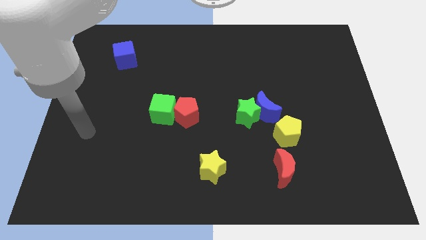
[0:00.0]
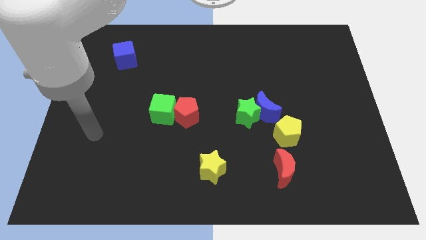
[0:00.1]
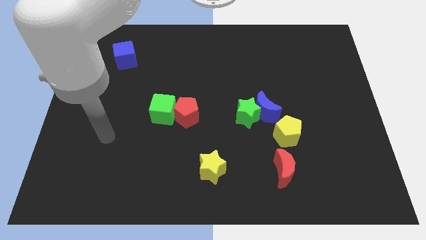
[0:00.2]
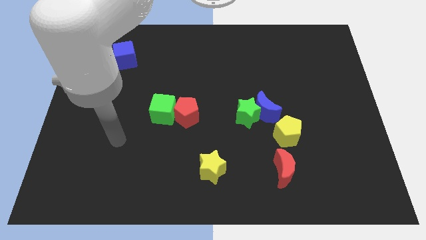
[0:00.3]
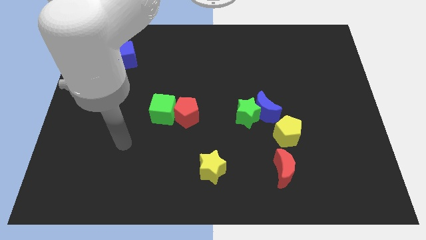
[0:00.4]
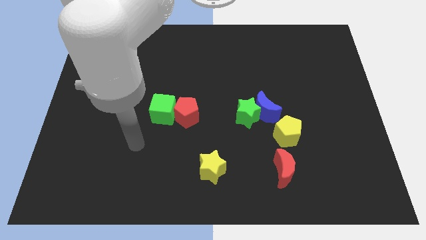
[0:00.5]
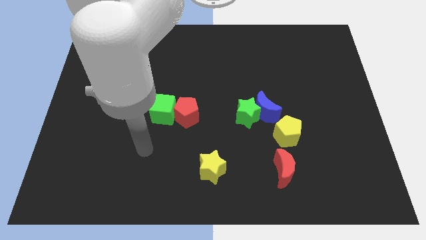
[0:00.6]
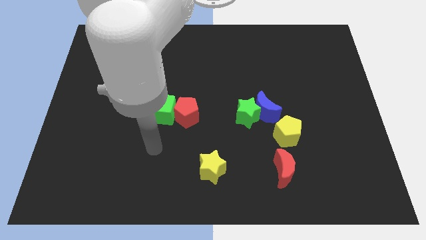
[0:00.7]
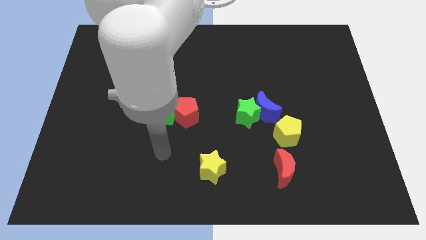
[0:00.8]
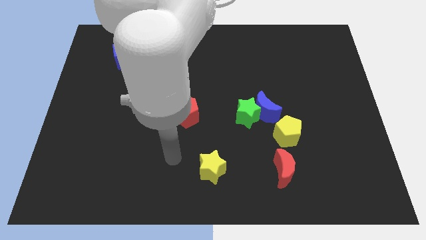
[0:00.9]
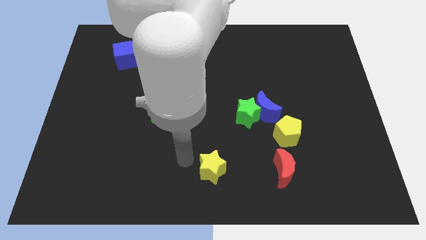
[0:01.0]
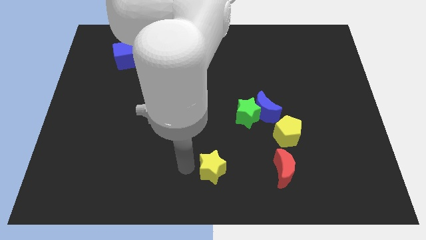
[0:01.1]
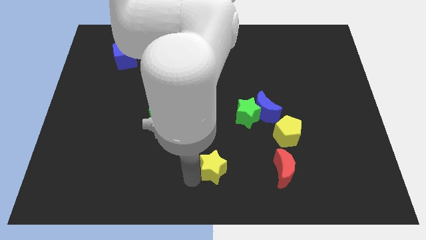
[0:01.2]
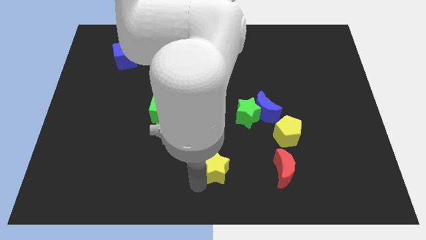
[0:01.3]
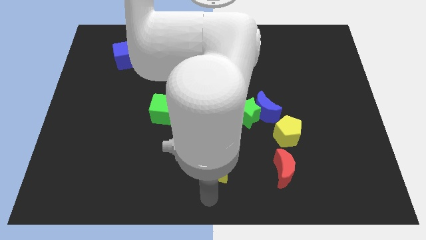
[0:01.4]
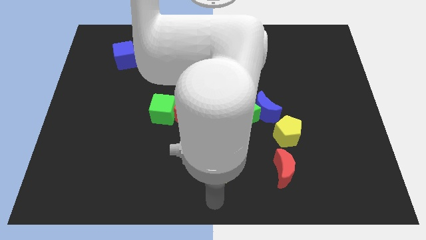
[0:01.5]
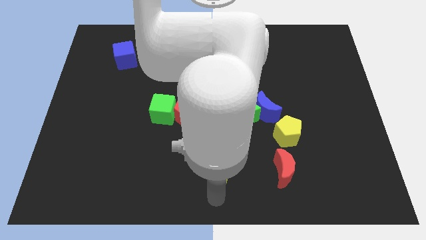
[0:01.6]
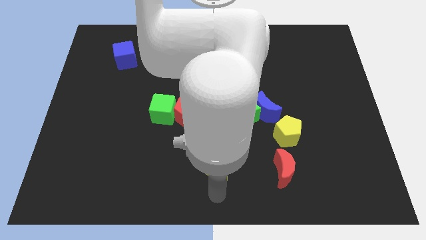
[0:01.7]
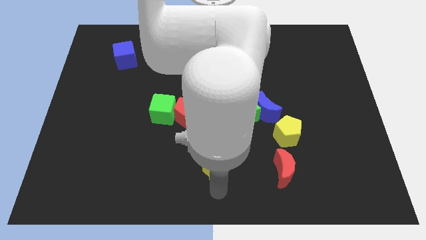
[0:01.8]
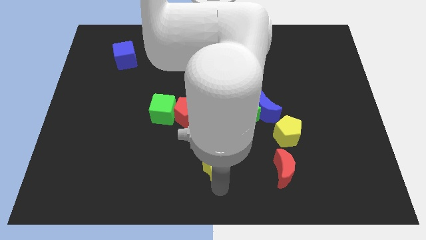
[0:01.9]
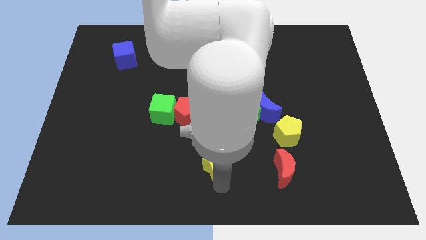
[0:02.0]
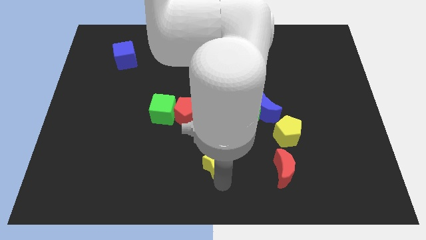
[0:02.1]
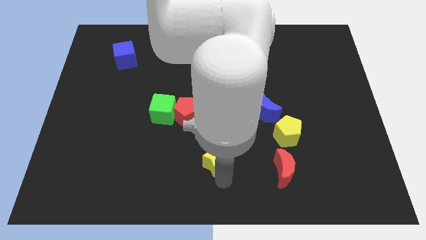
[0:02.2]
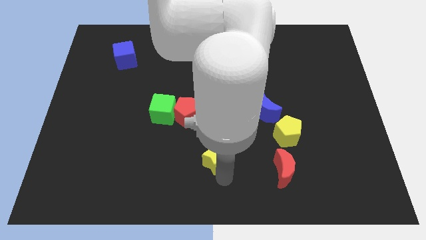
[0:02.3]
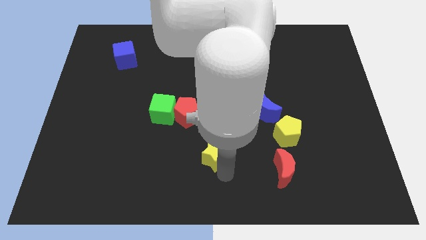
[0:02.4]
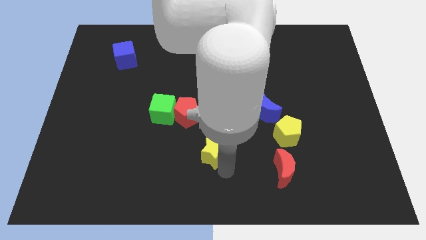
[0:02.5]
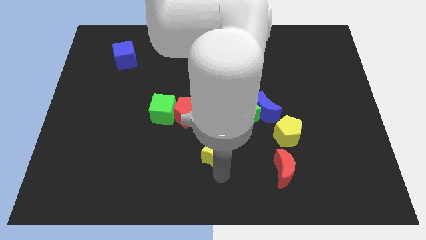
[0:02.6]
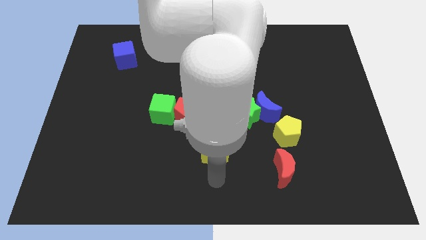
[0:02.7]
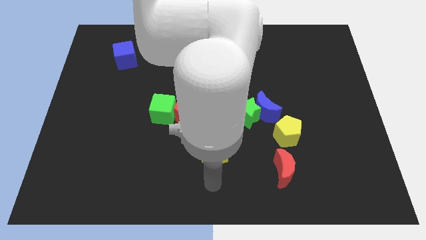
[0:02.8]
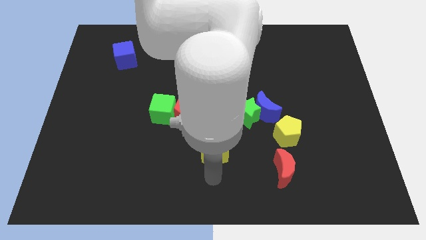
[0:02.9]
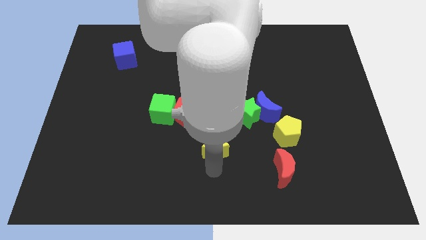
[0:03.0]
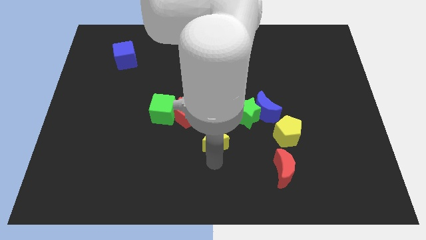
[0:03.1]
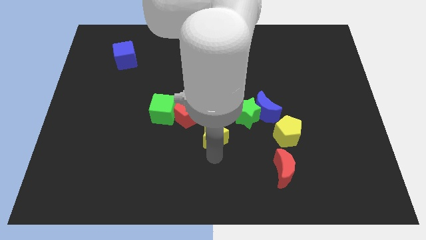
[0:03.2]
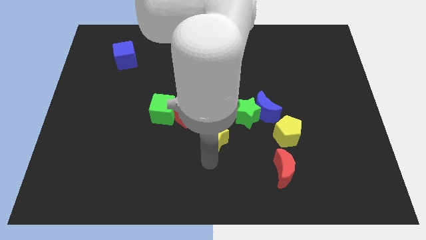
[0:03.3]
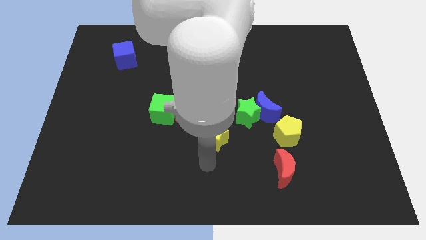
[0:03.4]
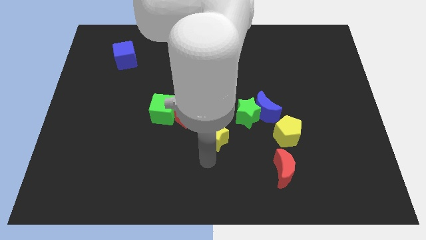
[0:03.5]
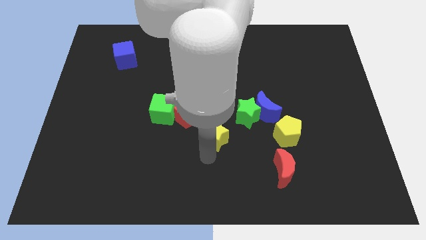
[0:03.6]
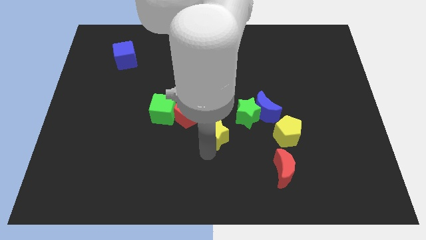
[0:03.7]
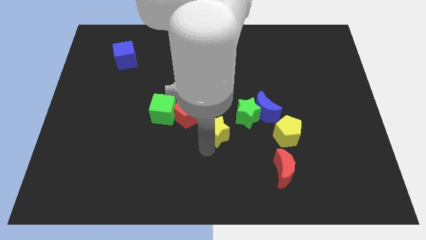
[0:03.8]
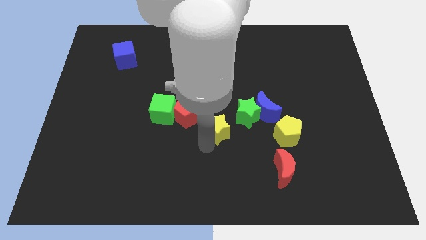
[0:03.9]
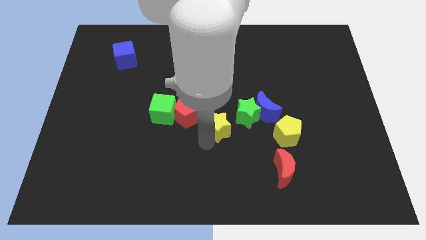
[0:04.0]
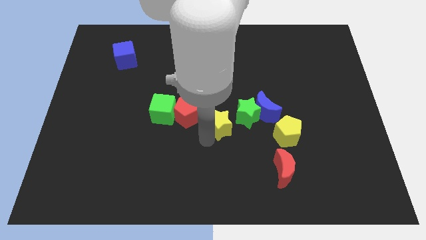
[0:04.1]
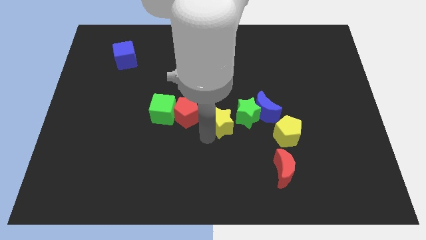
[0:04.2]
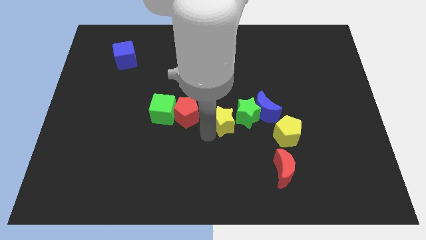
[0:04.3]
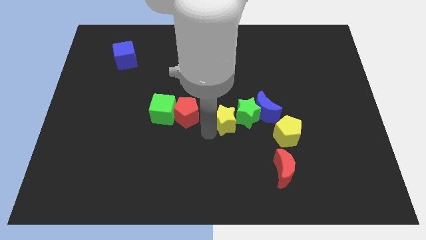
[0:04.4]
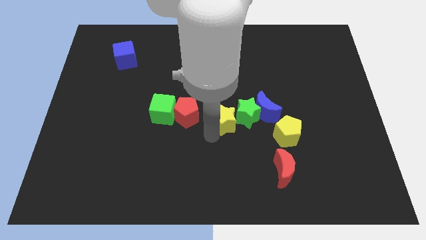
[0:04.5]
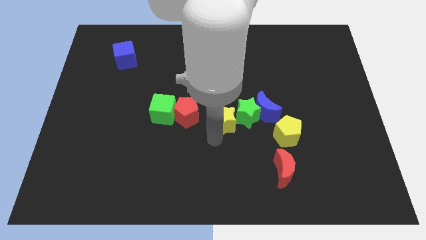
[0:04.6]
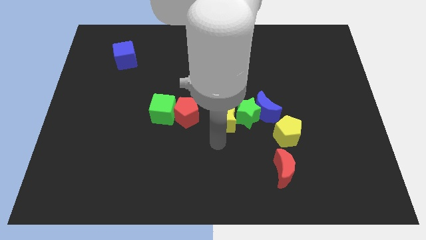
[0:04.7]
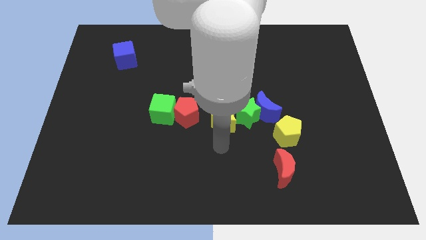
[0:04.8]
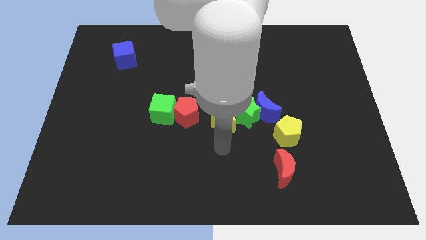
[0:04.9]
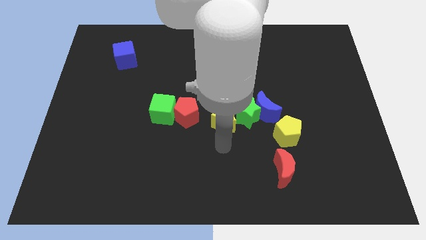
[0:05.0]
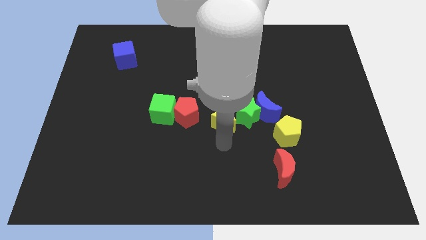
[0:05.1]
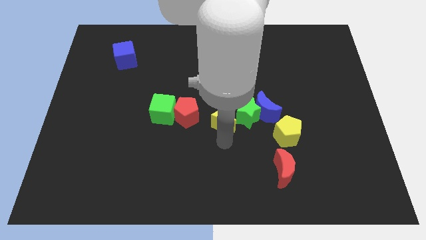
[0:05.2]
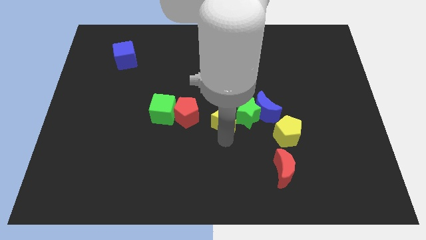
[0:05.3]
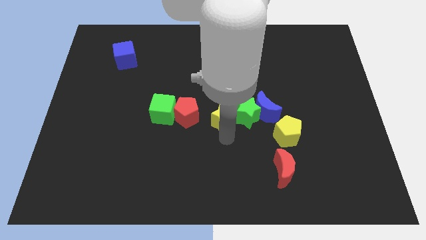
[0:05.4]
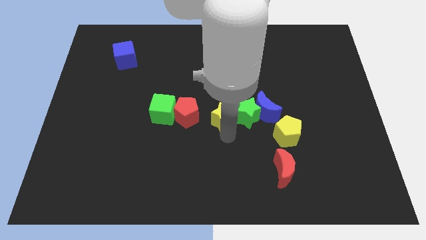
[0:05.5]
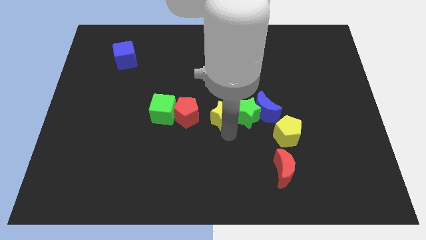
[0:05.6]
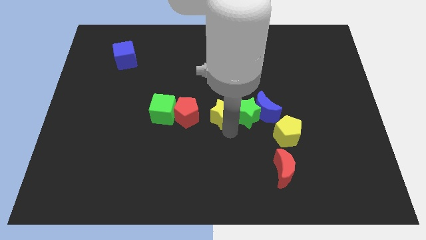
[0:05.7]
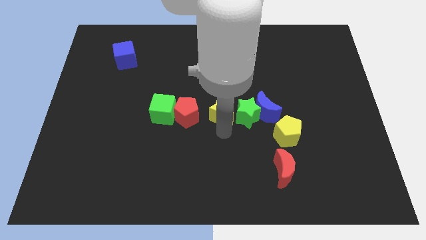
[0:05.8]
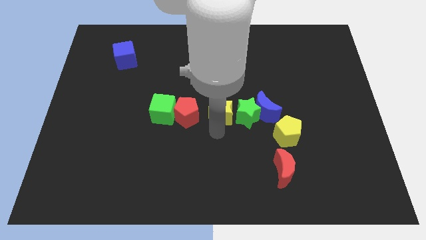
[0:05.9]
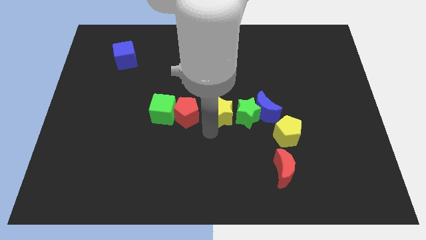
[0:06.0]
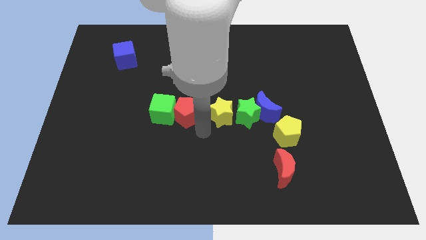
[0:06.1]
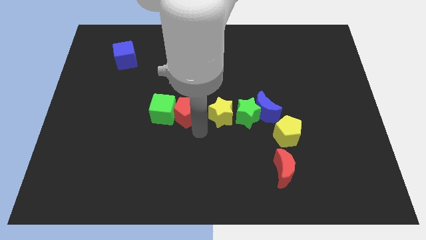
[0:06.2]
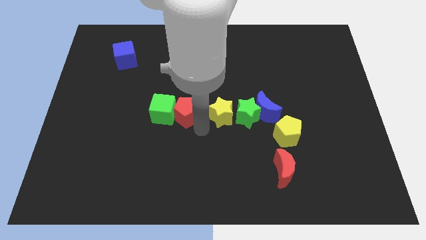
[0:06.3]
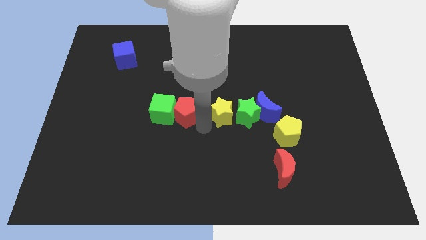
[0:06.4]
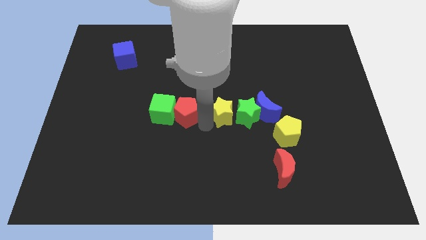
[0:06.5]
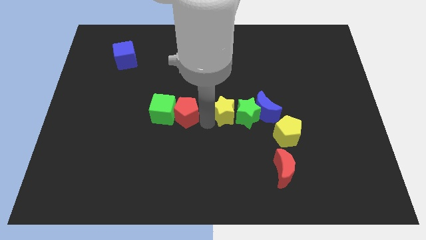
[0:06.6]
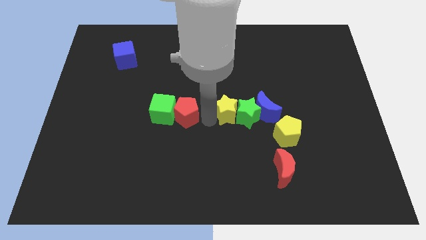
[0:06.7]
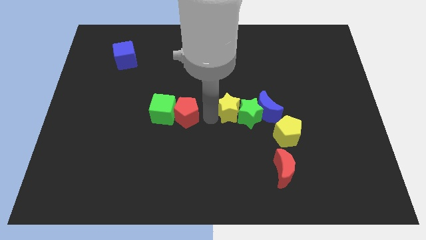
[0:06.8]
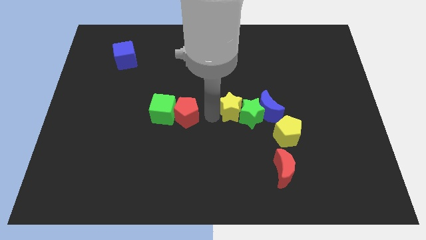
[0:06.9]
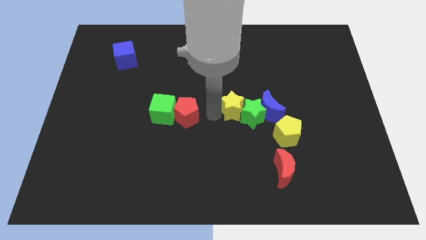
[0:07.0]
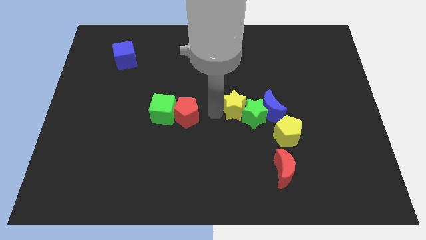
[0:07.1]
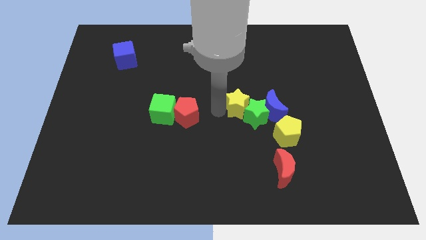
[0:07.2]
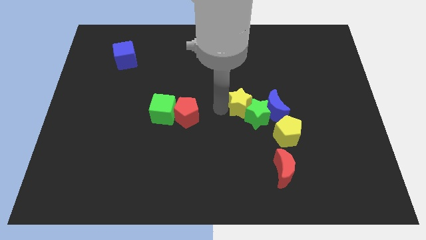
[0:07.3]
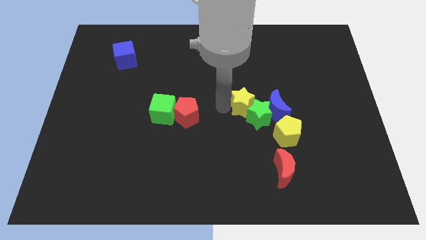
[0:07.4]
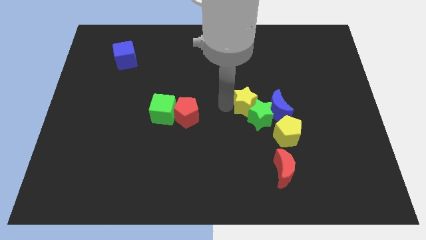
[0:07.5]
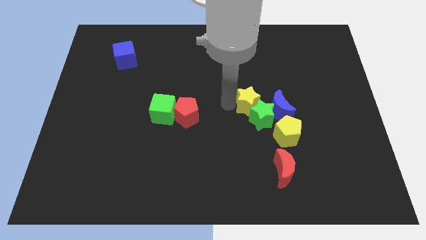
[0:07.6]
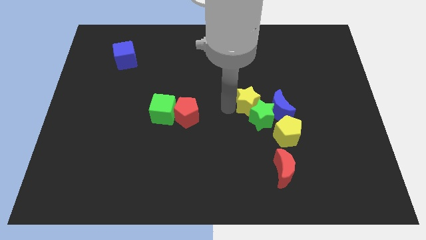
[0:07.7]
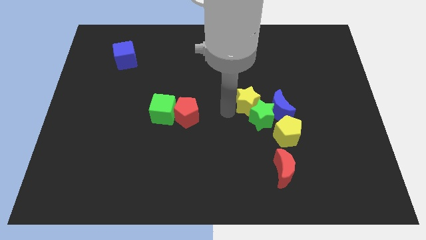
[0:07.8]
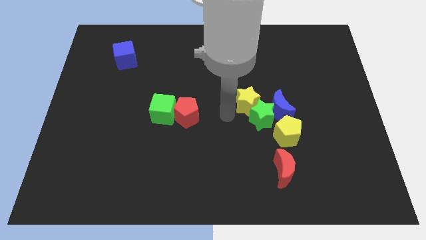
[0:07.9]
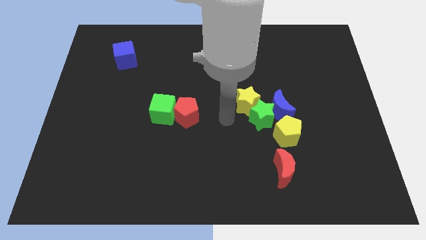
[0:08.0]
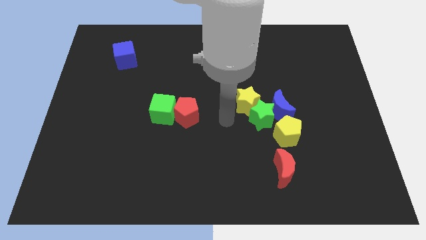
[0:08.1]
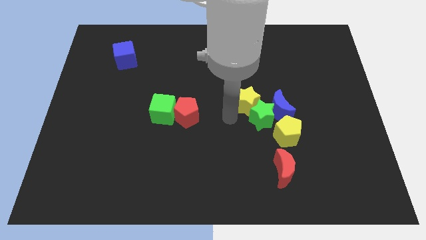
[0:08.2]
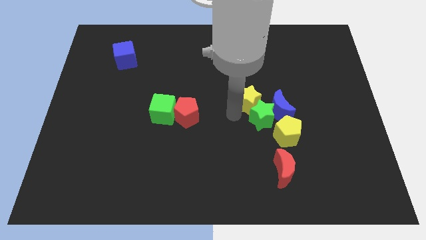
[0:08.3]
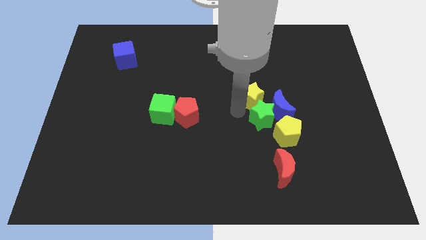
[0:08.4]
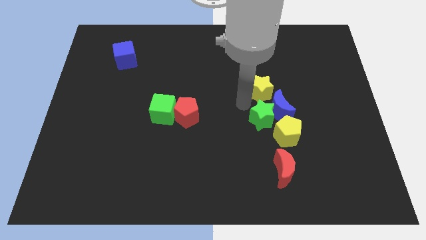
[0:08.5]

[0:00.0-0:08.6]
move the yellow star diagonally up and right
